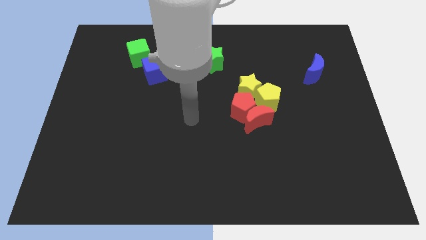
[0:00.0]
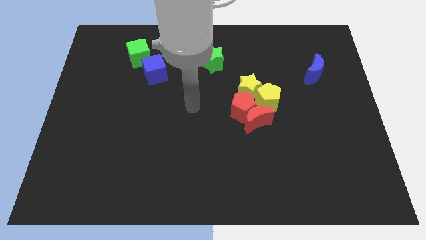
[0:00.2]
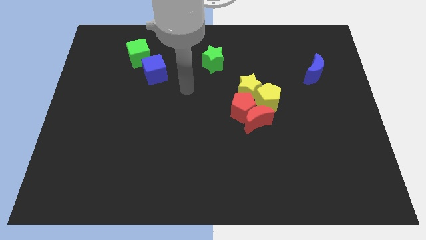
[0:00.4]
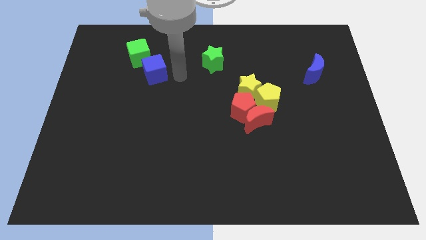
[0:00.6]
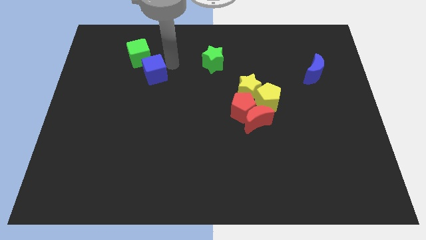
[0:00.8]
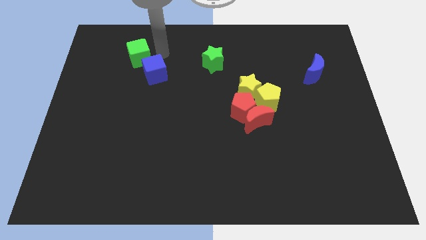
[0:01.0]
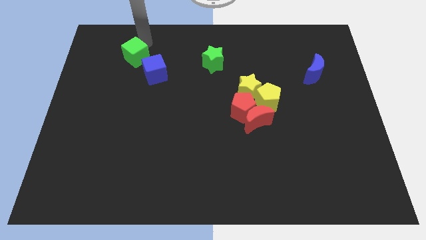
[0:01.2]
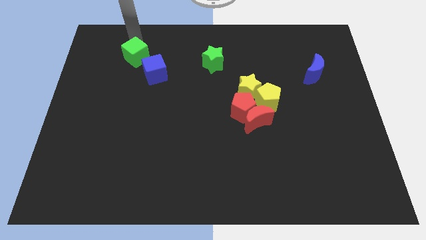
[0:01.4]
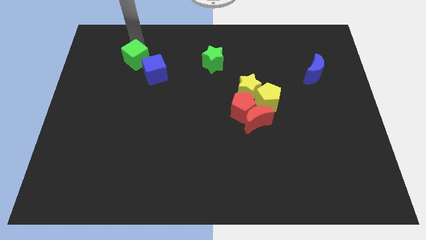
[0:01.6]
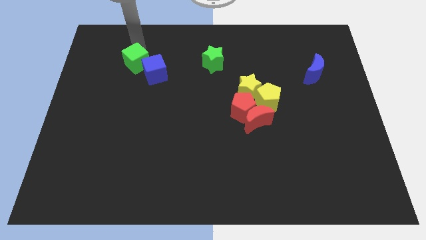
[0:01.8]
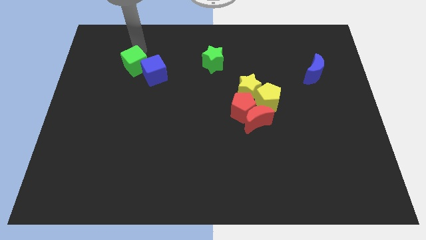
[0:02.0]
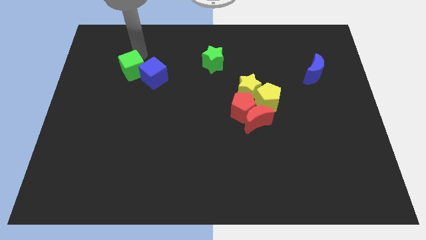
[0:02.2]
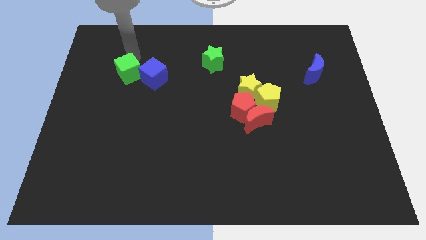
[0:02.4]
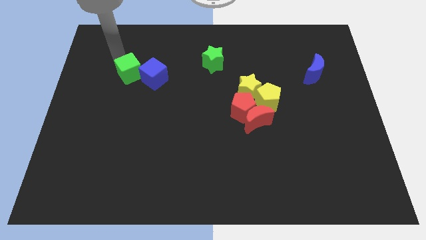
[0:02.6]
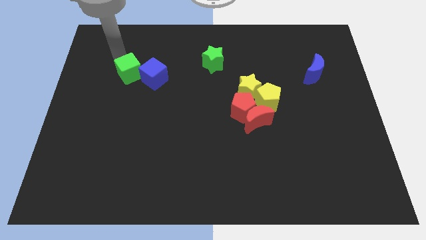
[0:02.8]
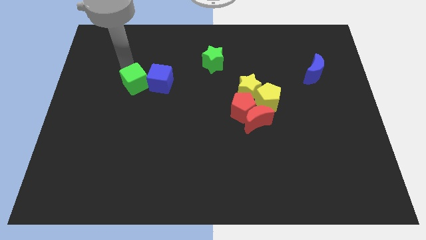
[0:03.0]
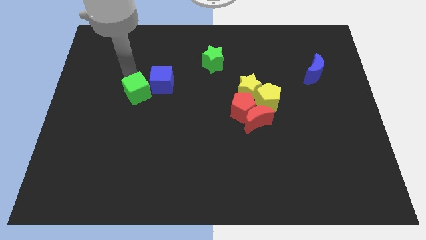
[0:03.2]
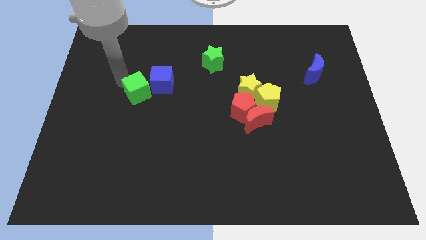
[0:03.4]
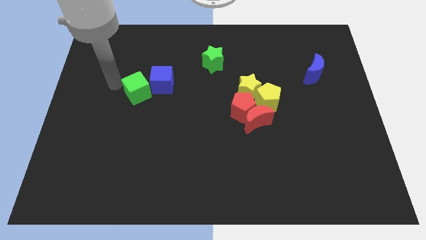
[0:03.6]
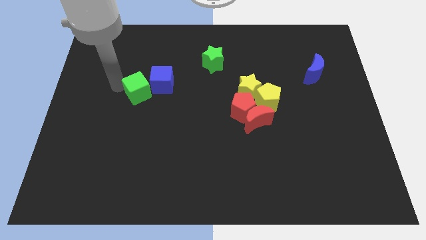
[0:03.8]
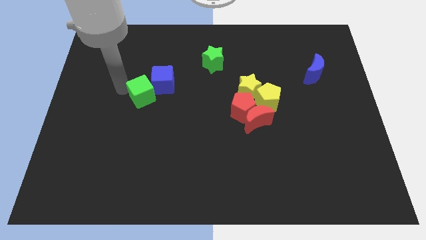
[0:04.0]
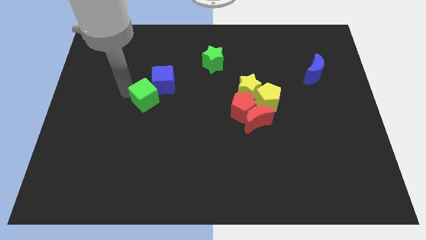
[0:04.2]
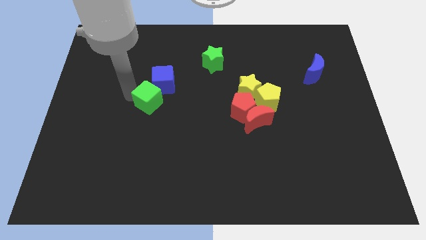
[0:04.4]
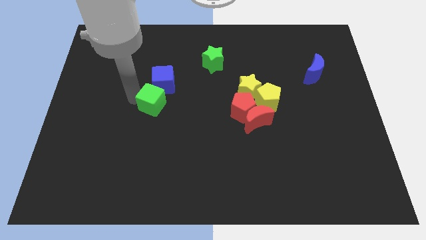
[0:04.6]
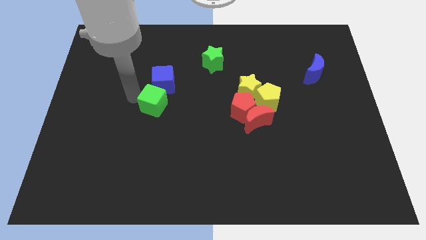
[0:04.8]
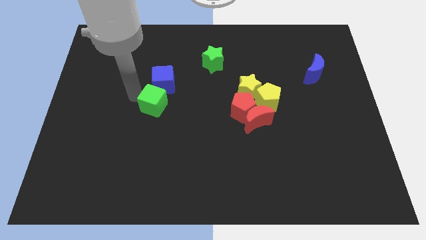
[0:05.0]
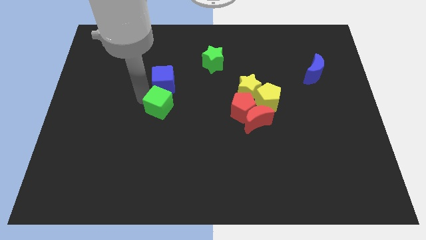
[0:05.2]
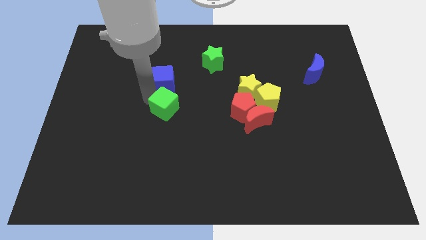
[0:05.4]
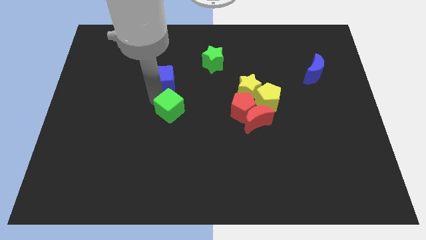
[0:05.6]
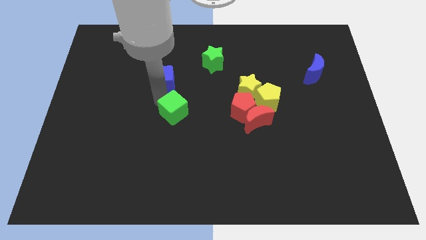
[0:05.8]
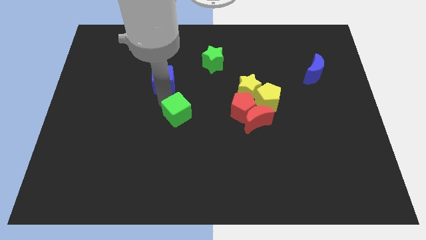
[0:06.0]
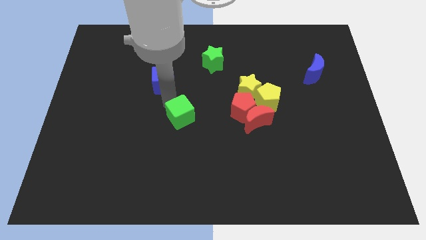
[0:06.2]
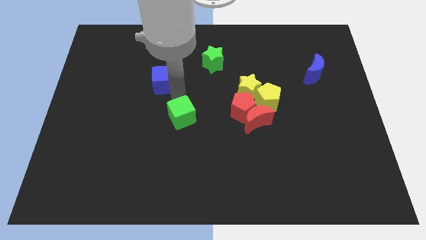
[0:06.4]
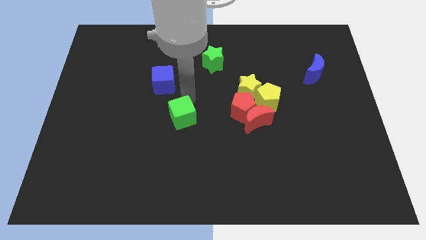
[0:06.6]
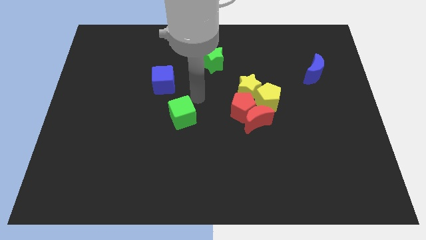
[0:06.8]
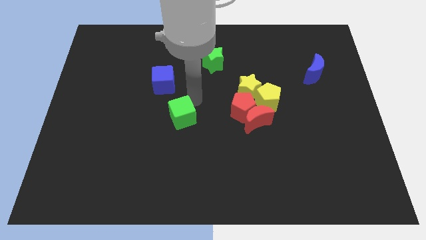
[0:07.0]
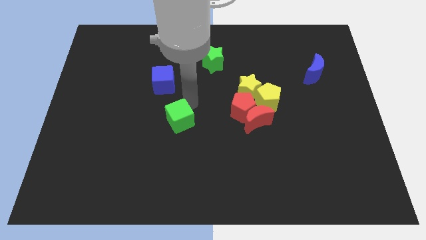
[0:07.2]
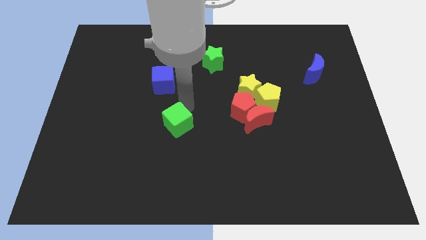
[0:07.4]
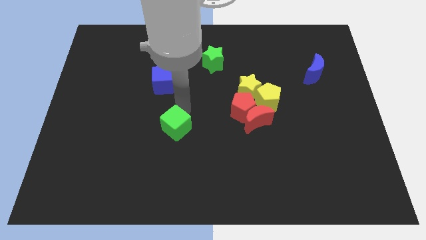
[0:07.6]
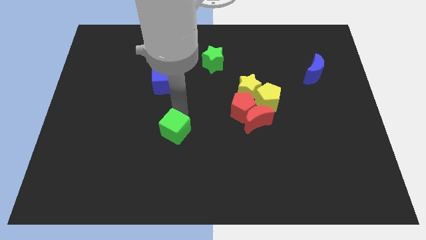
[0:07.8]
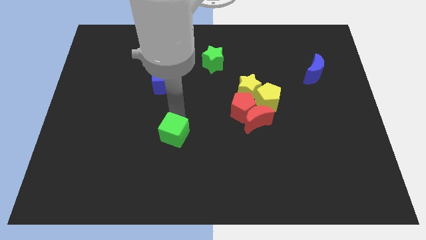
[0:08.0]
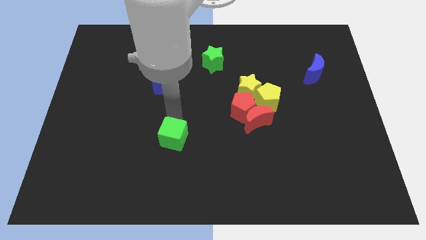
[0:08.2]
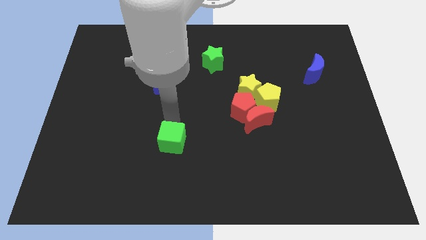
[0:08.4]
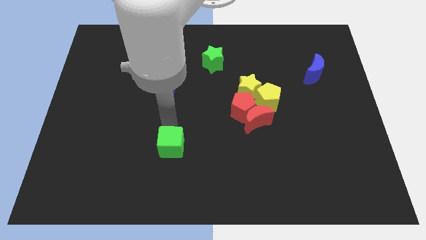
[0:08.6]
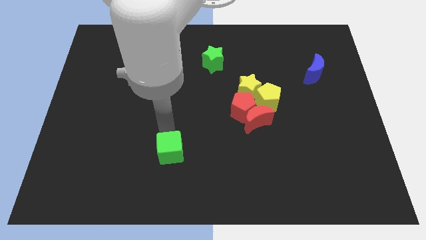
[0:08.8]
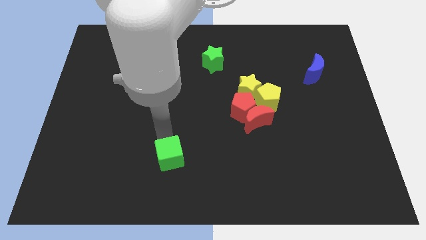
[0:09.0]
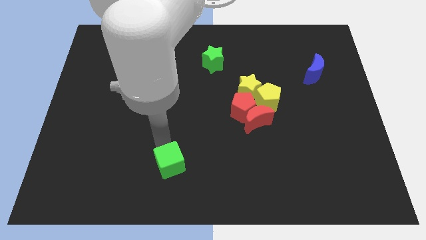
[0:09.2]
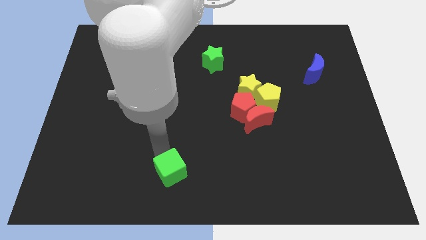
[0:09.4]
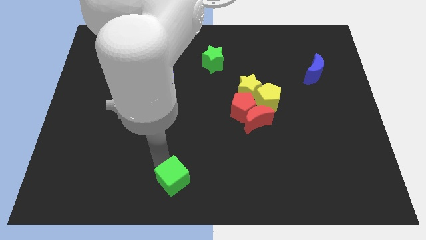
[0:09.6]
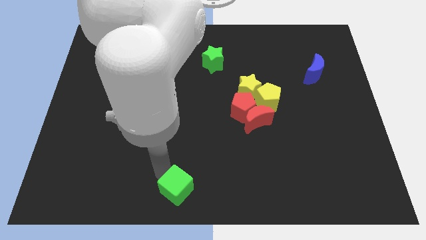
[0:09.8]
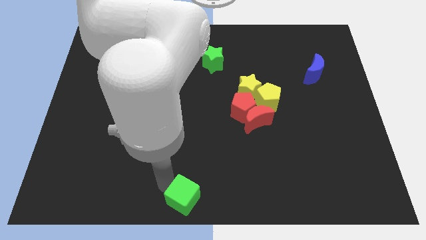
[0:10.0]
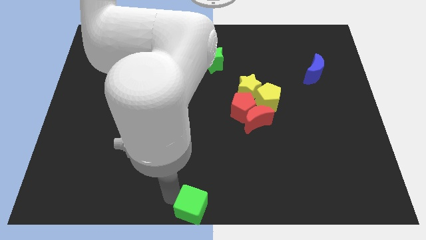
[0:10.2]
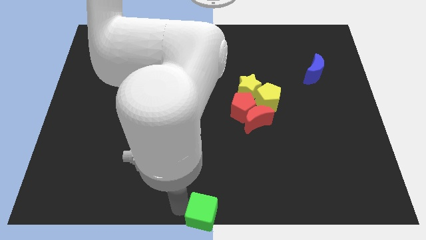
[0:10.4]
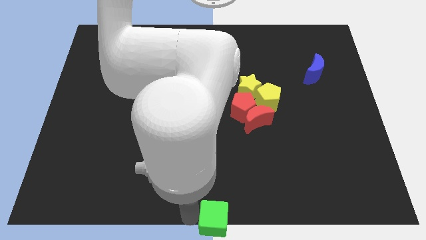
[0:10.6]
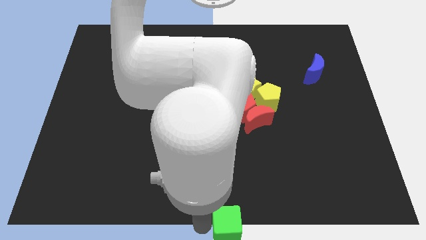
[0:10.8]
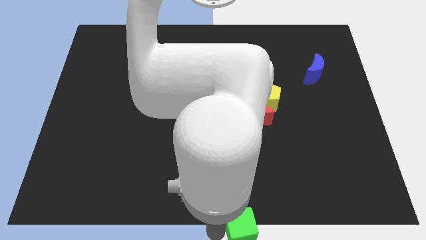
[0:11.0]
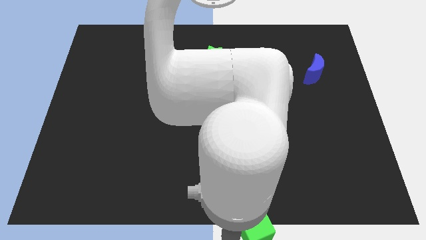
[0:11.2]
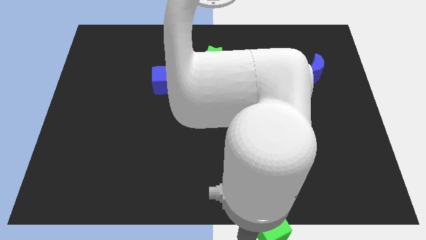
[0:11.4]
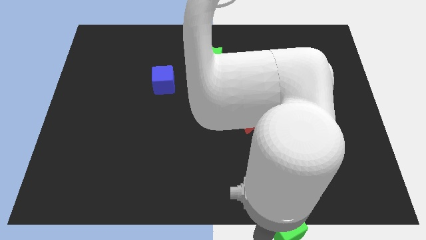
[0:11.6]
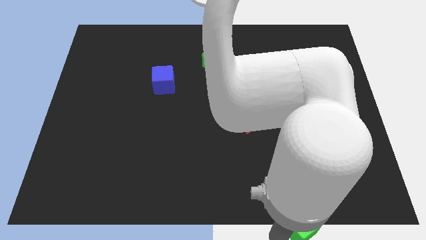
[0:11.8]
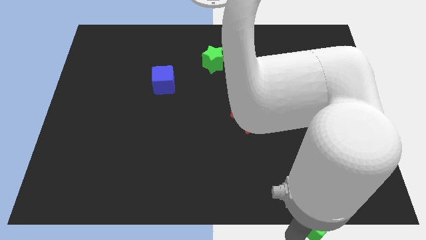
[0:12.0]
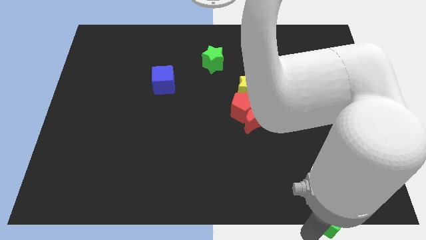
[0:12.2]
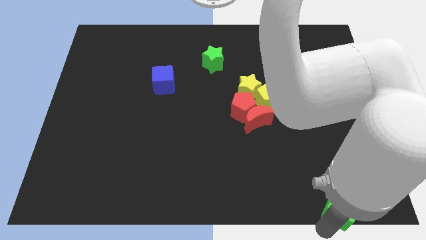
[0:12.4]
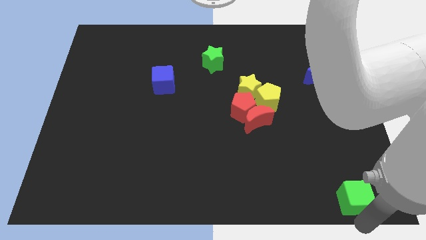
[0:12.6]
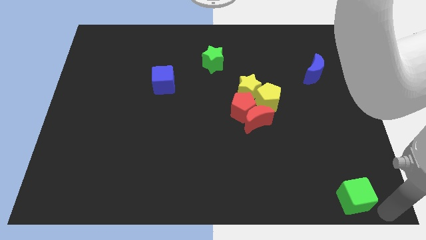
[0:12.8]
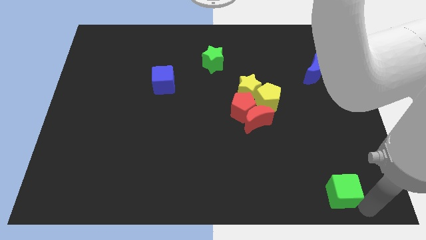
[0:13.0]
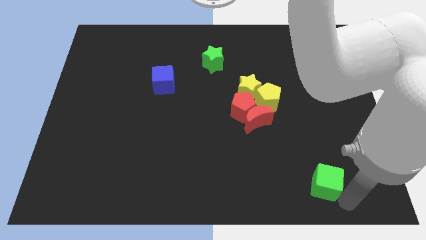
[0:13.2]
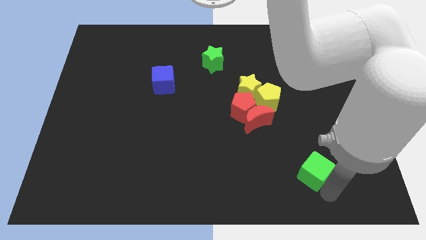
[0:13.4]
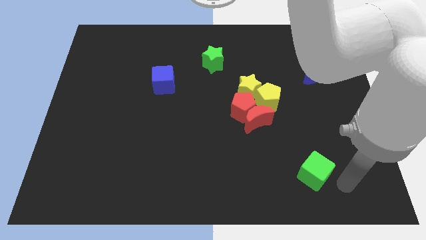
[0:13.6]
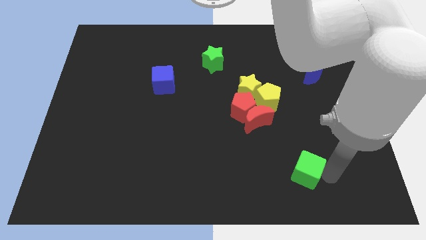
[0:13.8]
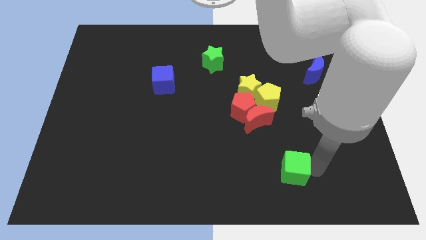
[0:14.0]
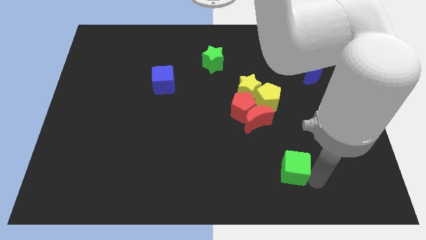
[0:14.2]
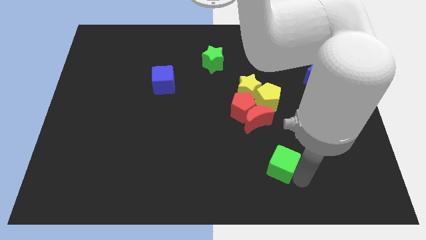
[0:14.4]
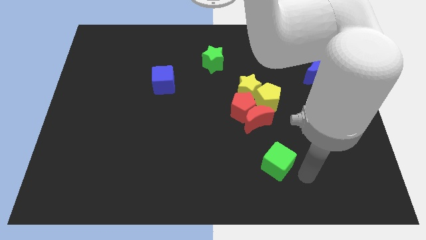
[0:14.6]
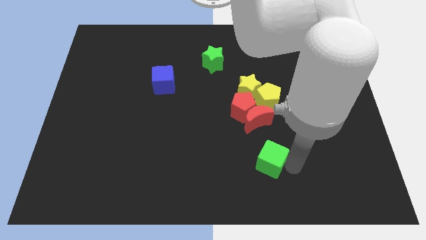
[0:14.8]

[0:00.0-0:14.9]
push the green cube to the bottom side of the yellow pentagon
